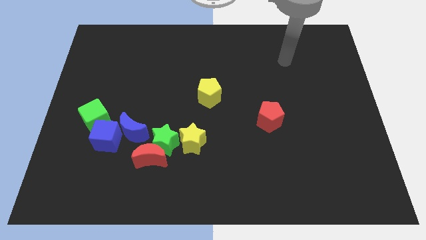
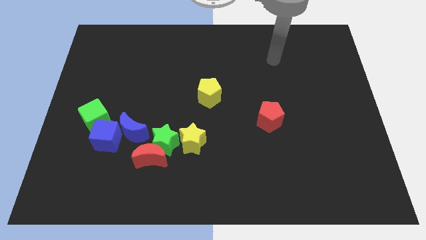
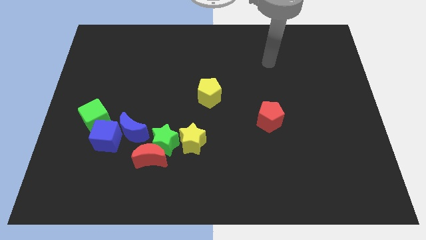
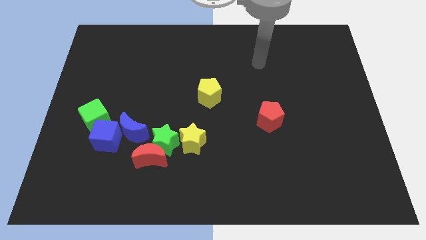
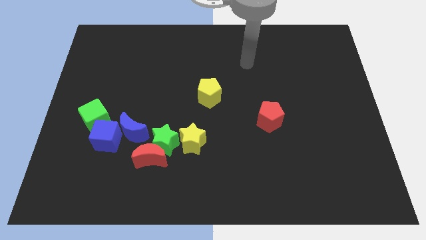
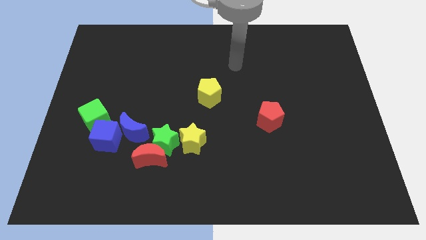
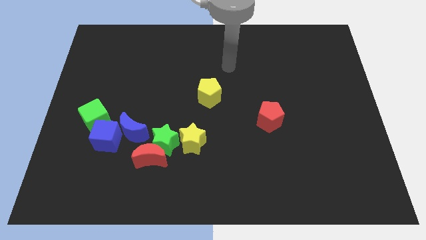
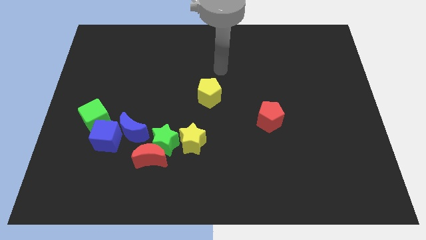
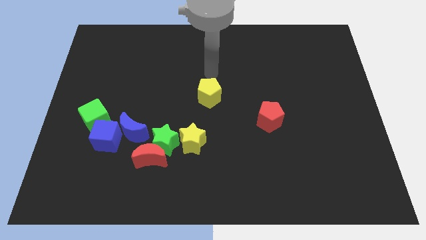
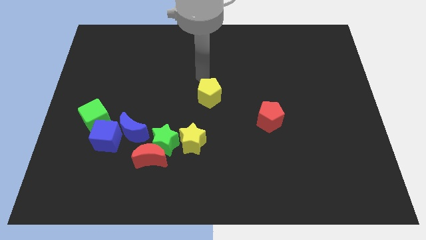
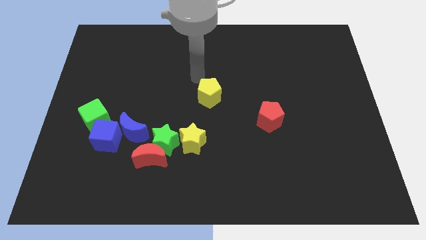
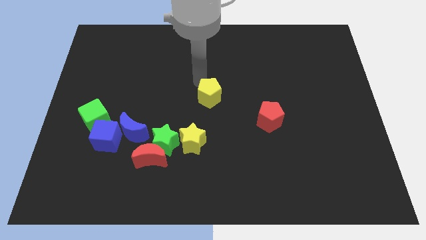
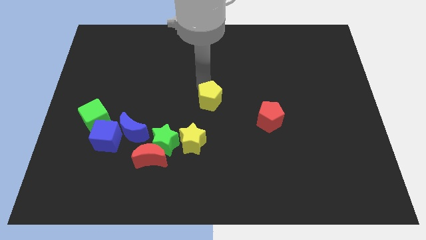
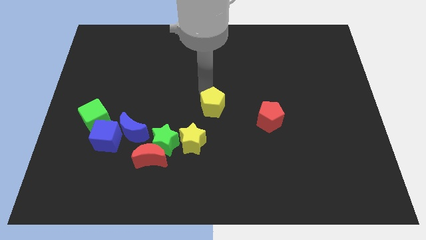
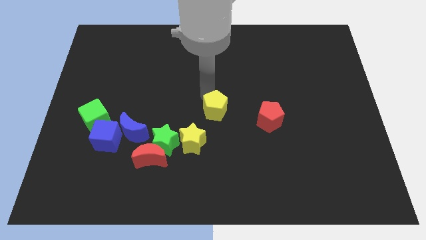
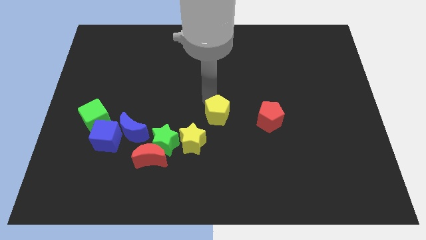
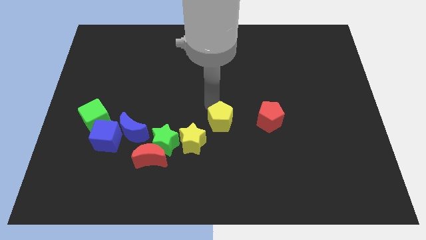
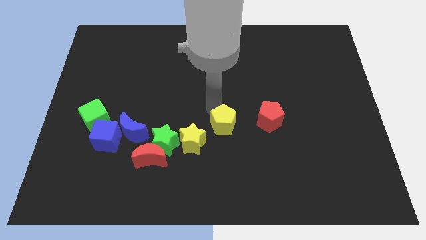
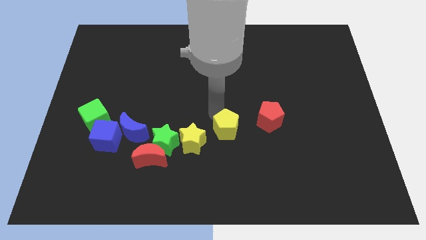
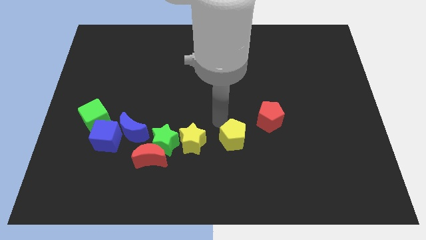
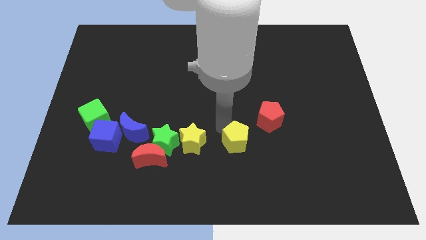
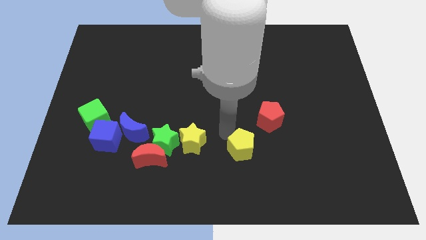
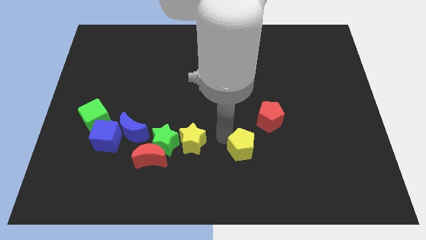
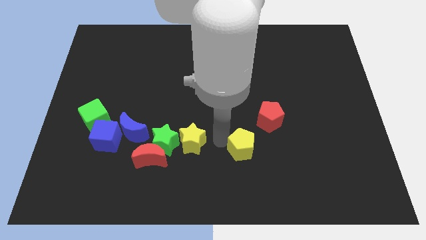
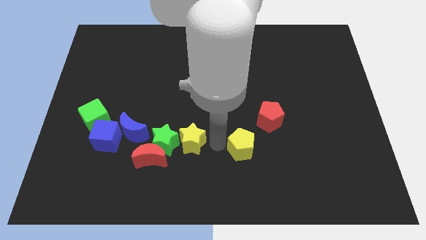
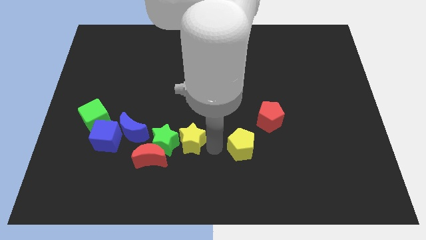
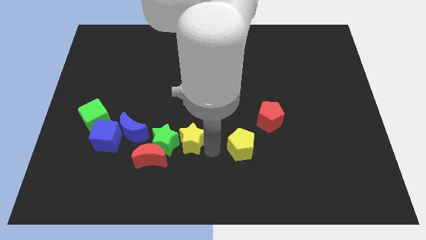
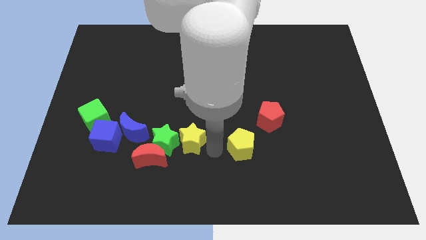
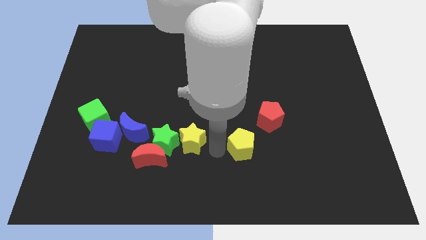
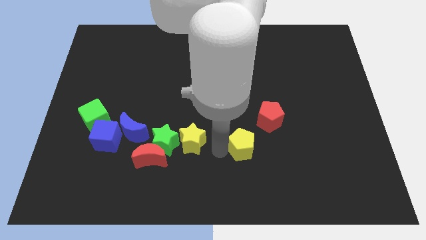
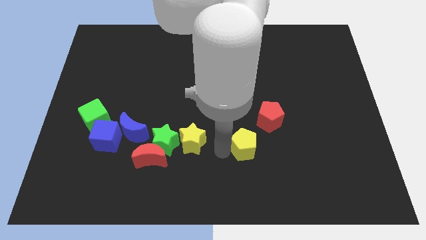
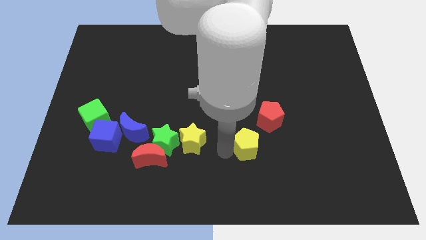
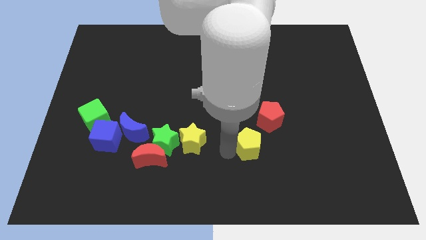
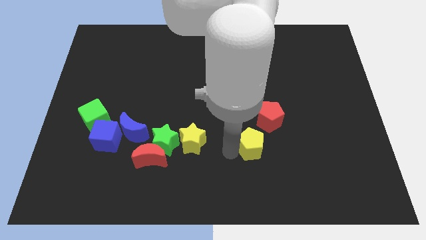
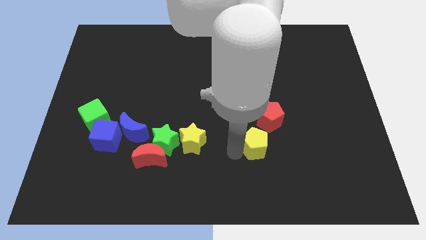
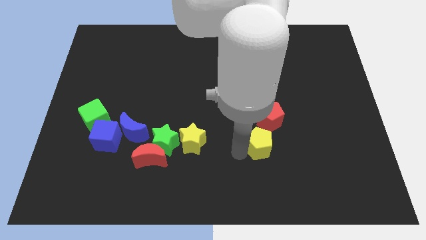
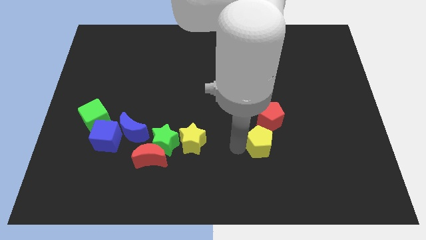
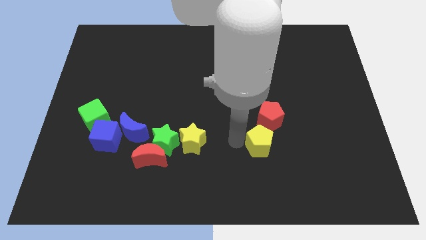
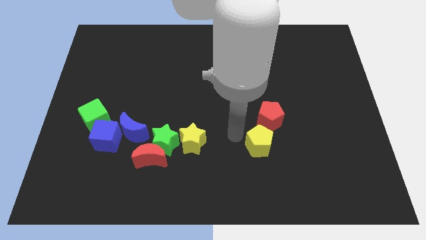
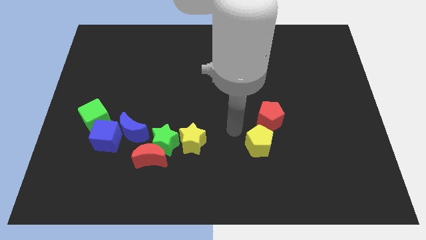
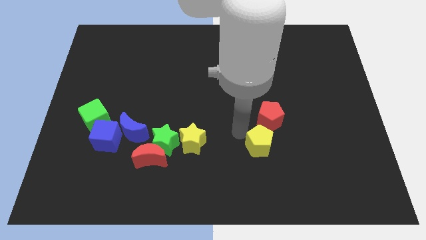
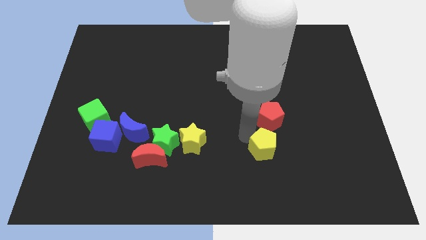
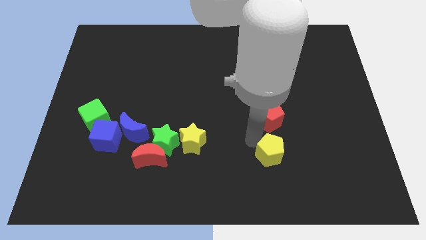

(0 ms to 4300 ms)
slide the yellow pentagon downwards and to the right

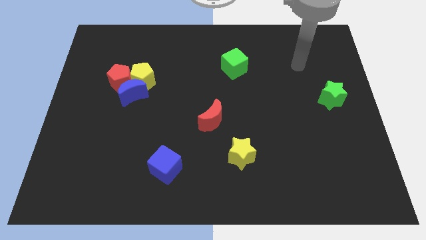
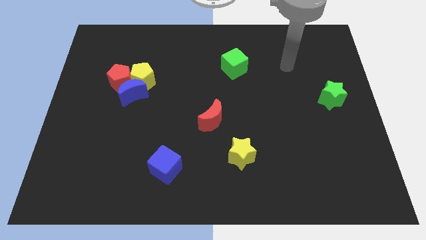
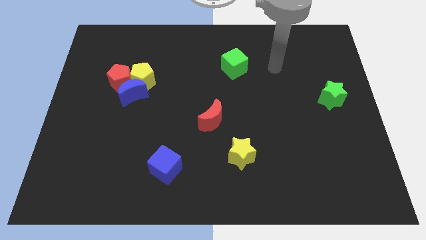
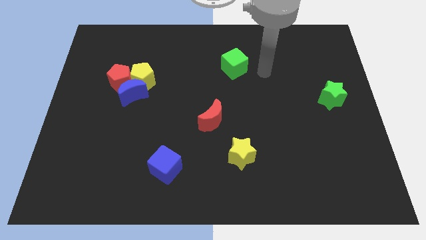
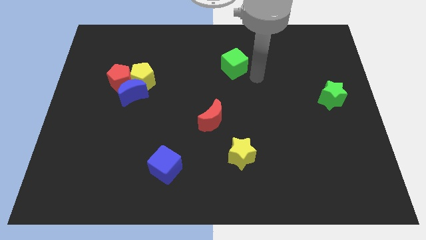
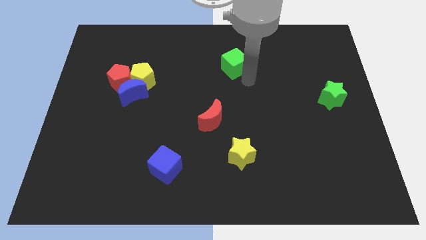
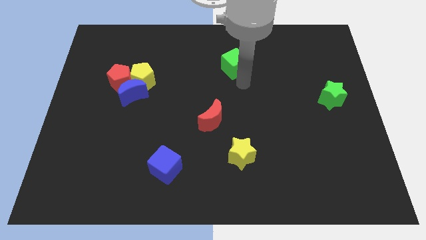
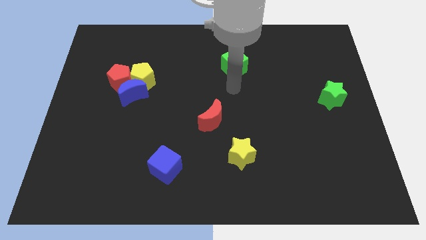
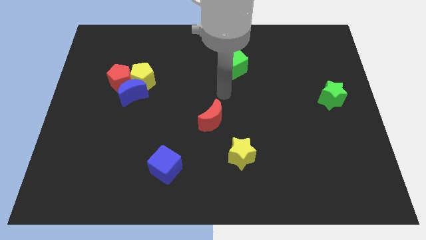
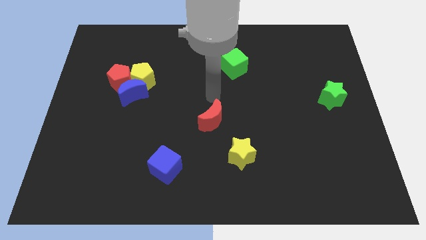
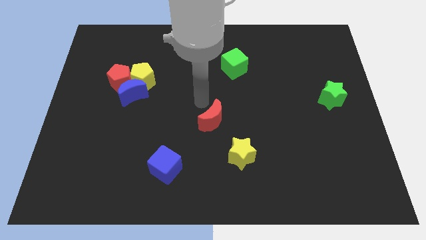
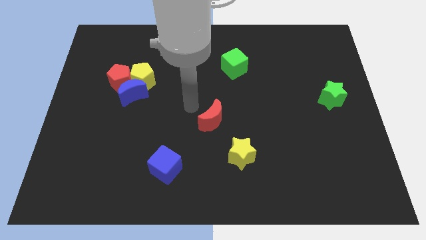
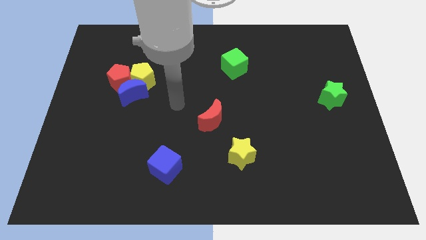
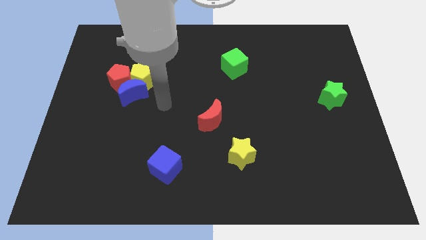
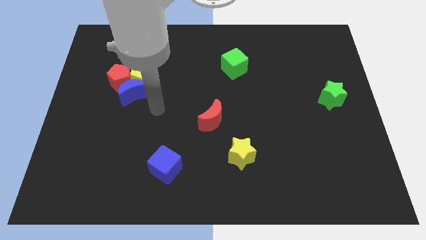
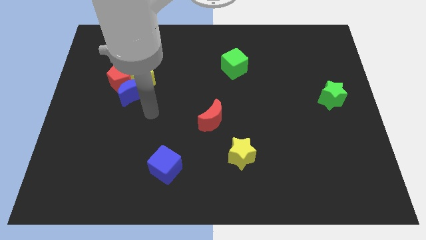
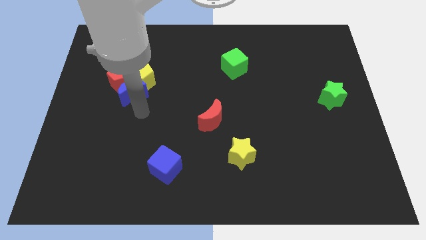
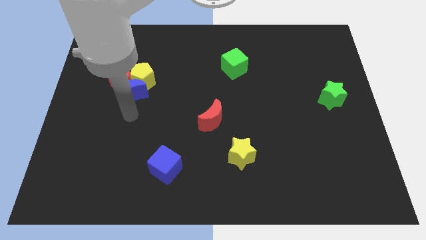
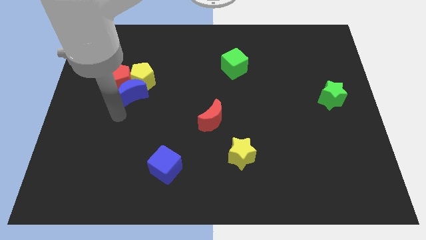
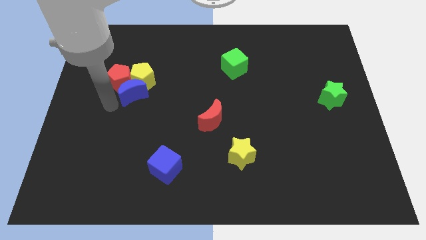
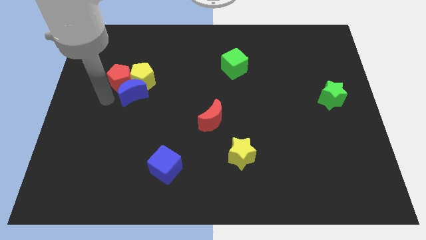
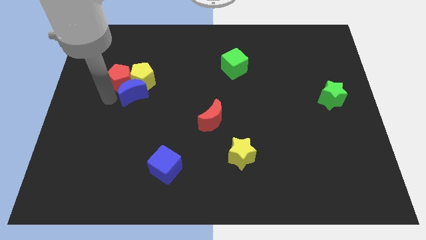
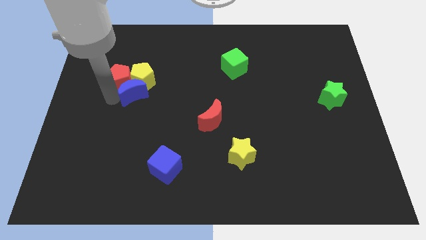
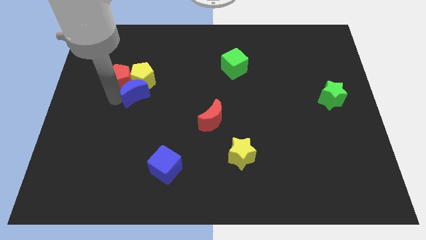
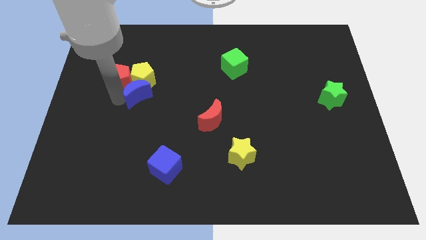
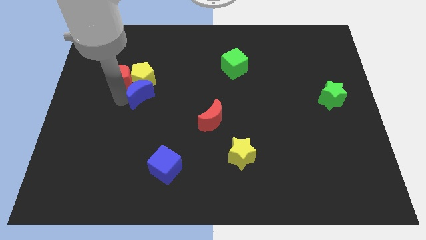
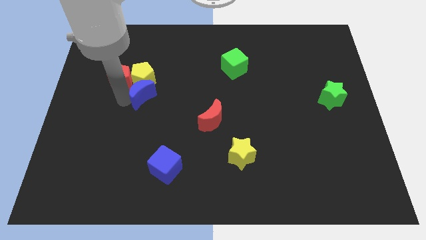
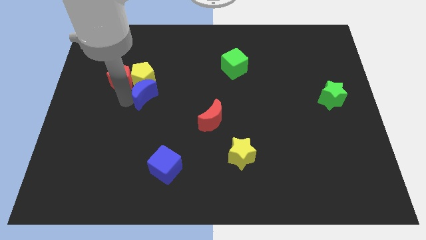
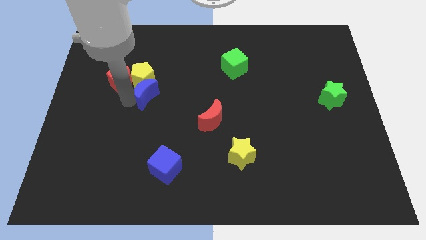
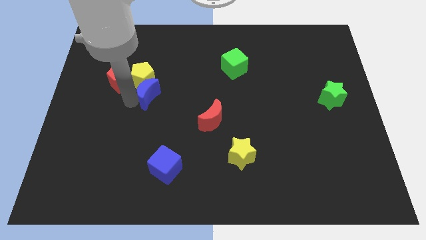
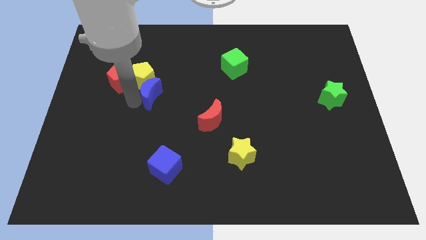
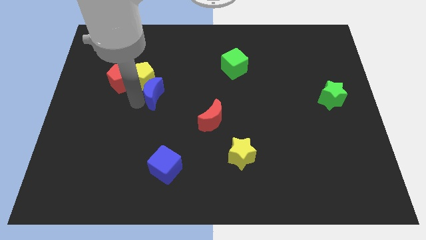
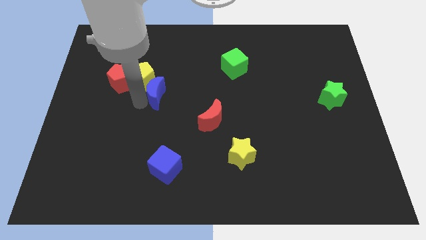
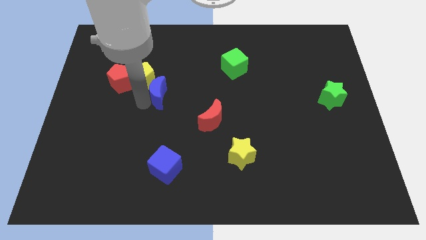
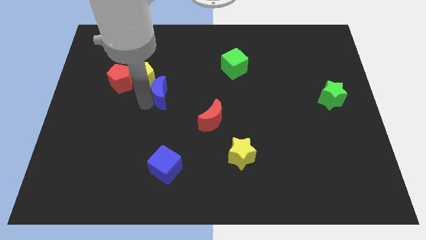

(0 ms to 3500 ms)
move the blue moon right somewhat

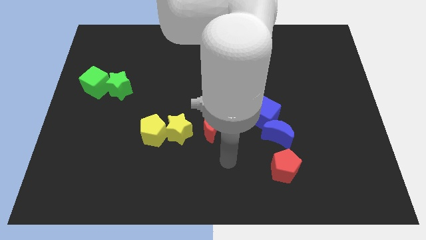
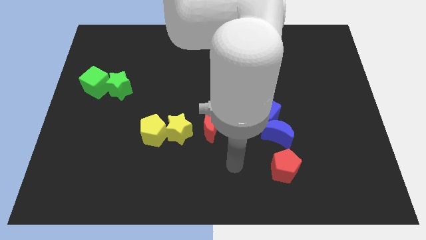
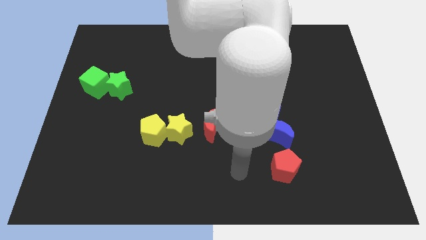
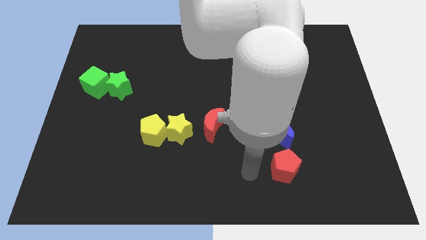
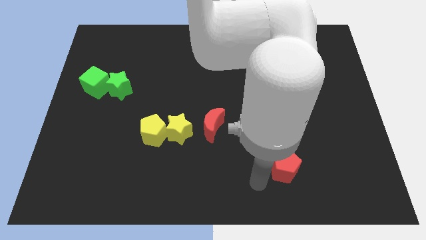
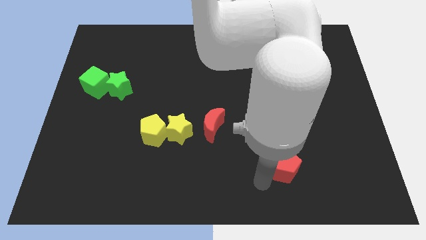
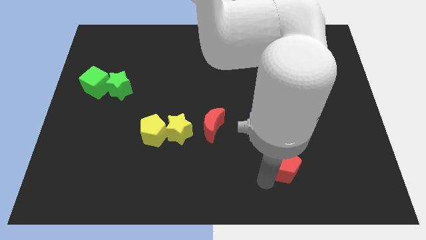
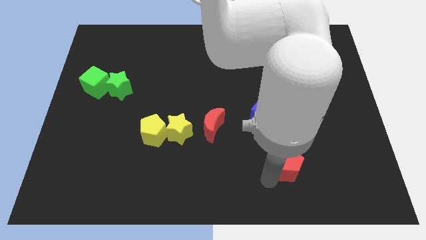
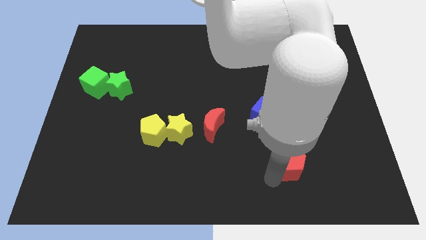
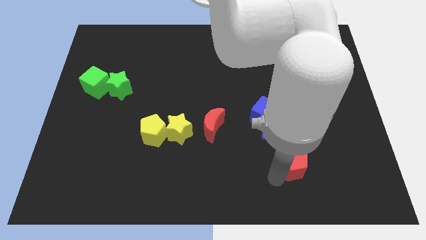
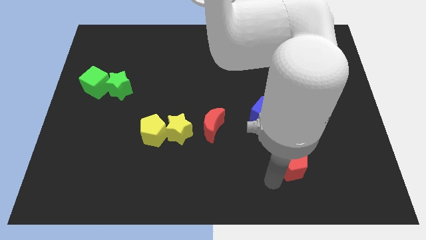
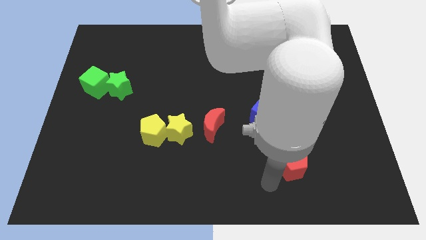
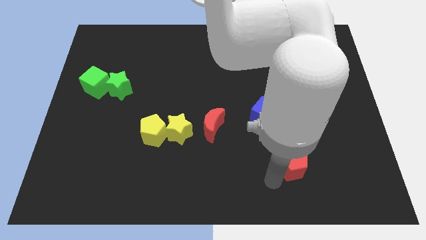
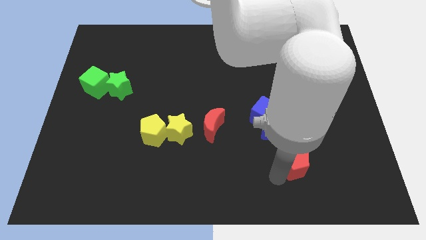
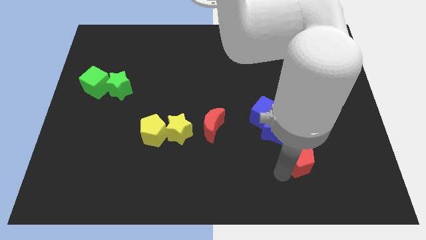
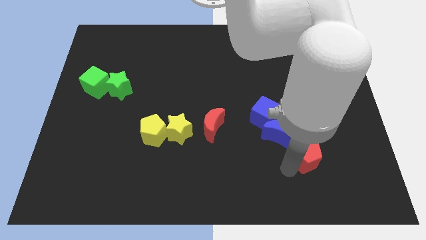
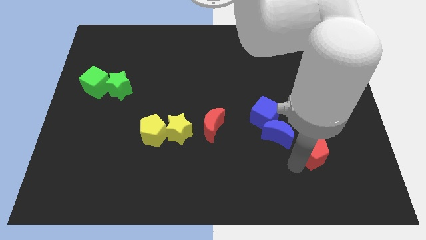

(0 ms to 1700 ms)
slightly push the red pentagon upwards and right
